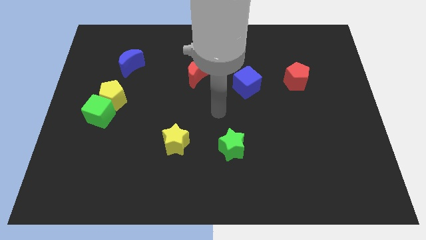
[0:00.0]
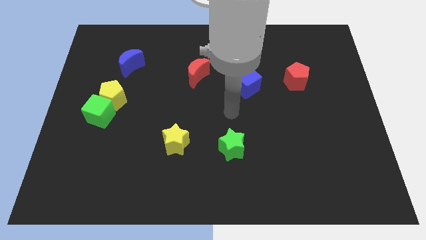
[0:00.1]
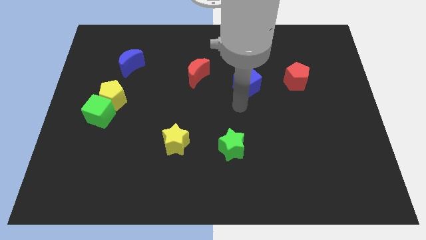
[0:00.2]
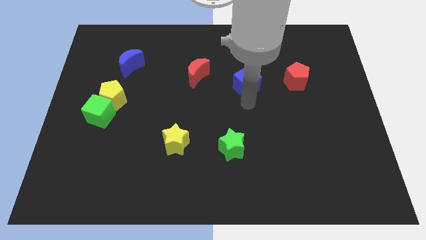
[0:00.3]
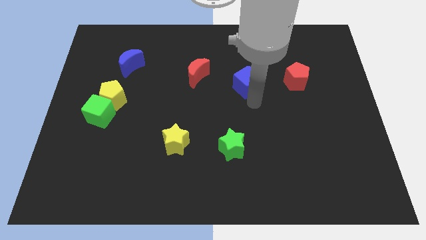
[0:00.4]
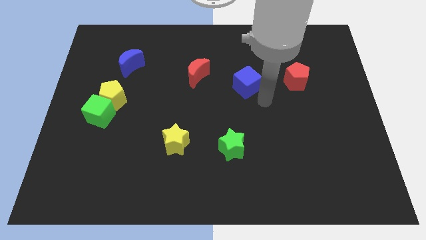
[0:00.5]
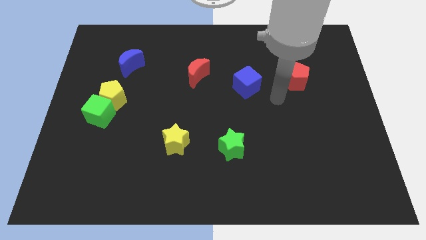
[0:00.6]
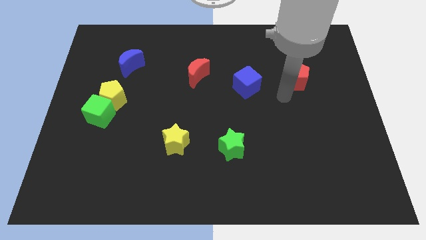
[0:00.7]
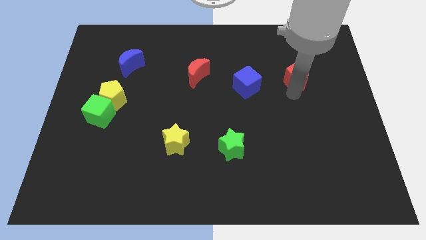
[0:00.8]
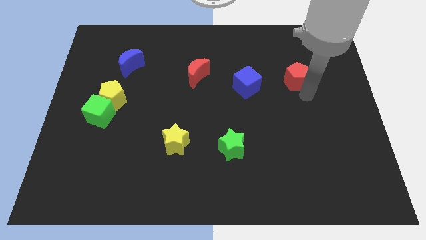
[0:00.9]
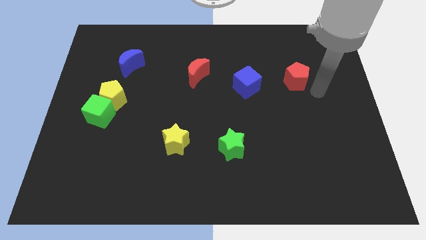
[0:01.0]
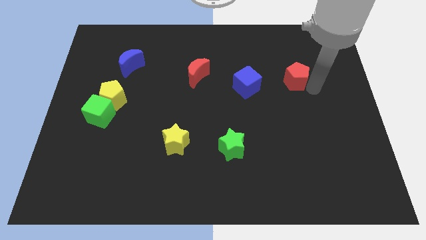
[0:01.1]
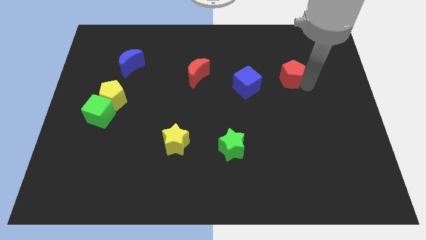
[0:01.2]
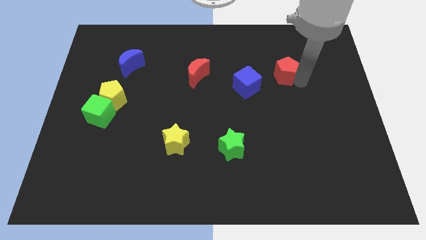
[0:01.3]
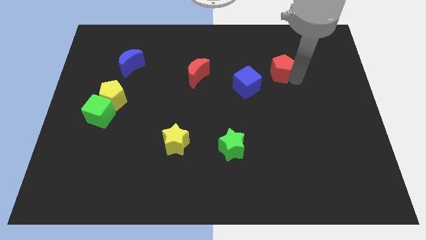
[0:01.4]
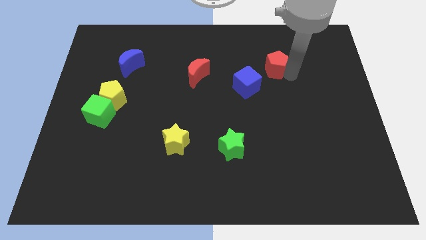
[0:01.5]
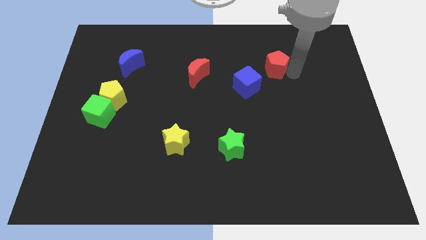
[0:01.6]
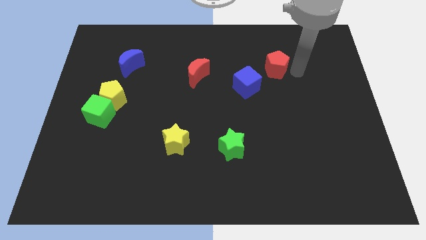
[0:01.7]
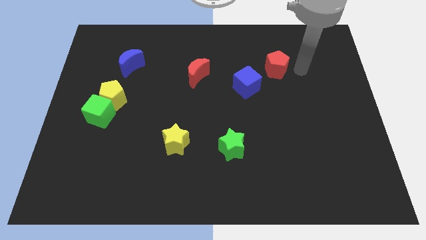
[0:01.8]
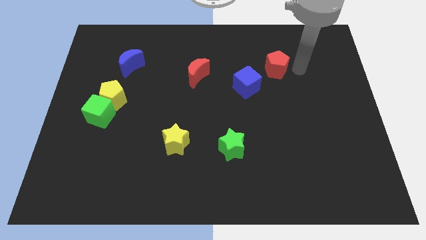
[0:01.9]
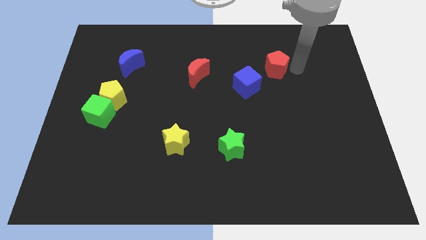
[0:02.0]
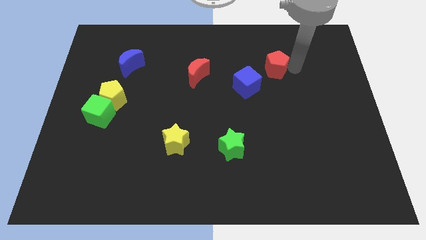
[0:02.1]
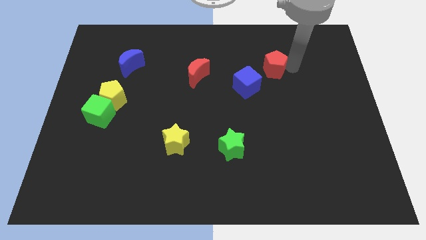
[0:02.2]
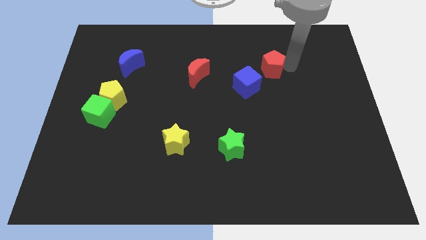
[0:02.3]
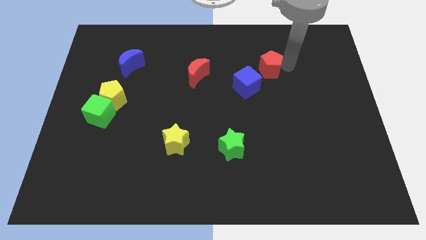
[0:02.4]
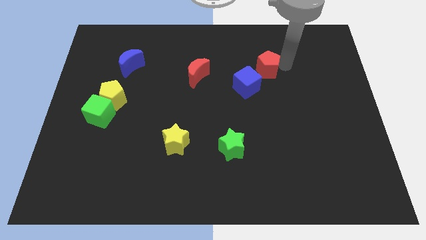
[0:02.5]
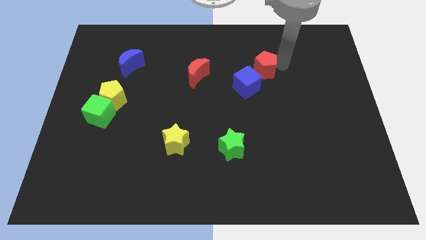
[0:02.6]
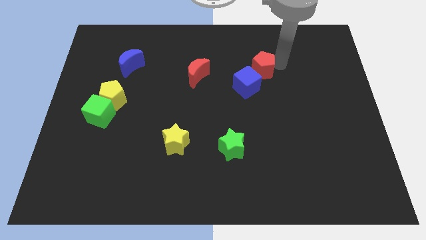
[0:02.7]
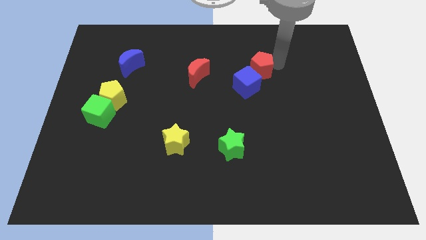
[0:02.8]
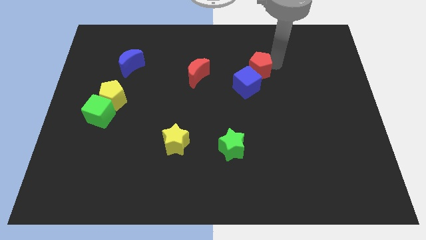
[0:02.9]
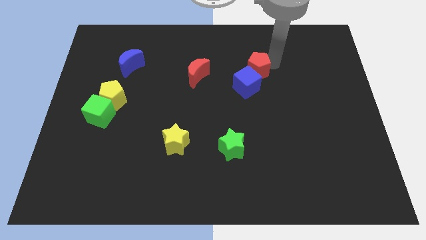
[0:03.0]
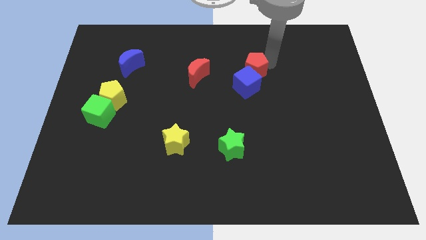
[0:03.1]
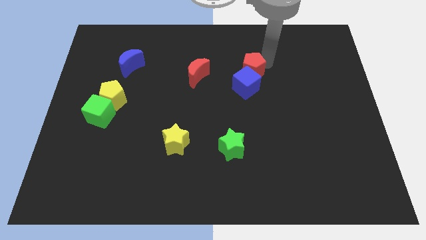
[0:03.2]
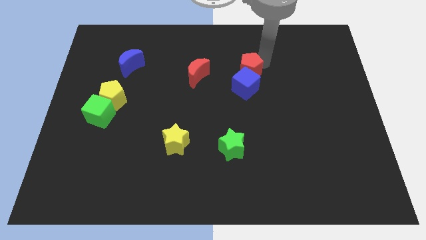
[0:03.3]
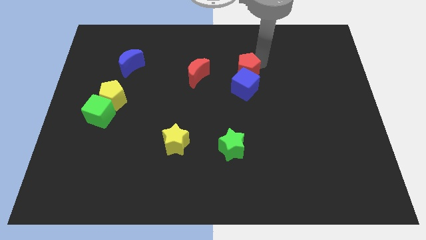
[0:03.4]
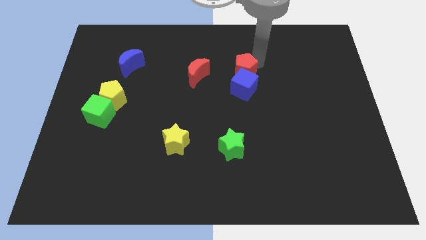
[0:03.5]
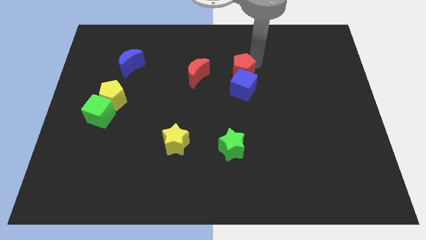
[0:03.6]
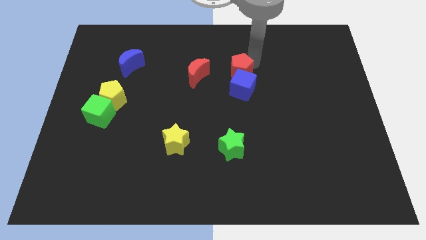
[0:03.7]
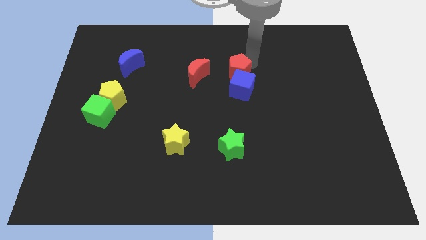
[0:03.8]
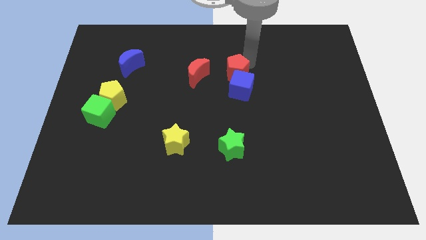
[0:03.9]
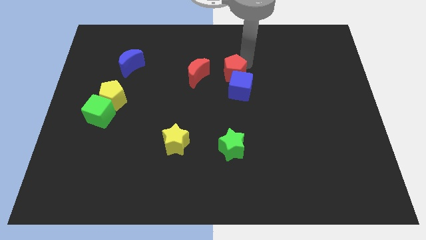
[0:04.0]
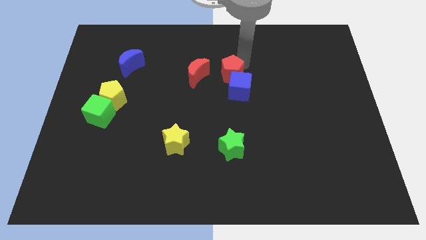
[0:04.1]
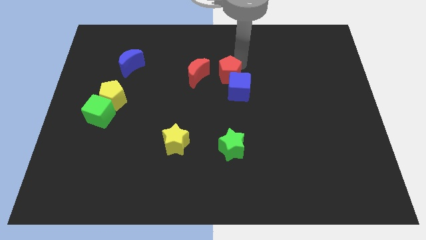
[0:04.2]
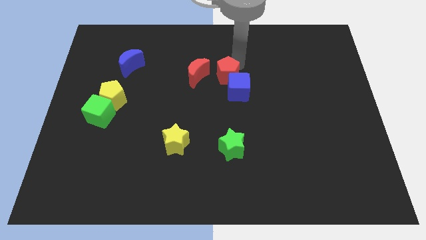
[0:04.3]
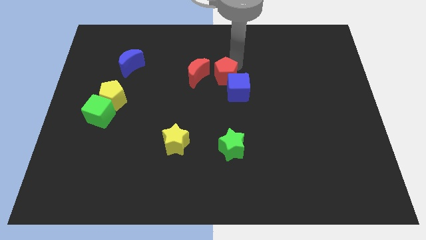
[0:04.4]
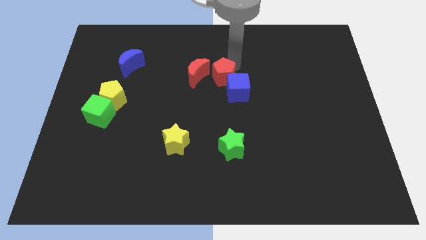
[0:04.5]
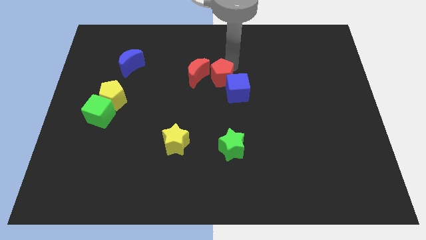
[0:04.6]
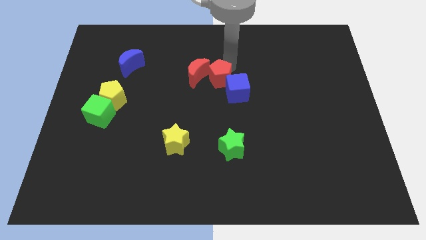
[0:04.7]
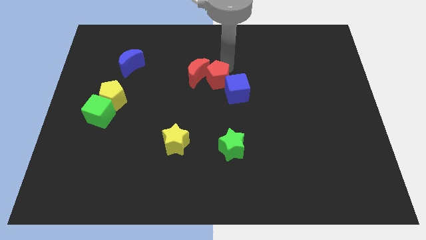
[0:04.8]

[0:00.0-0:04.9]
slide the red pentagon left

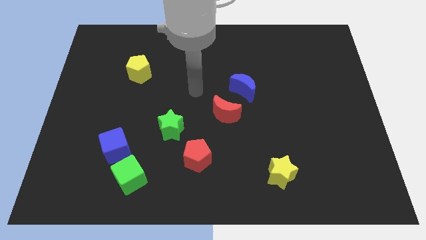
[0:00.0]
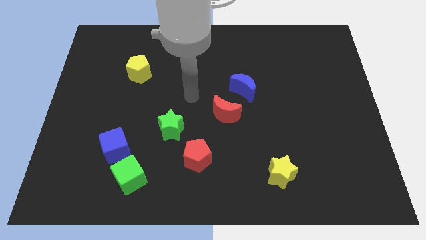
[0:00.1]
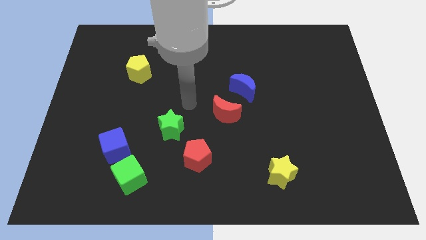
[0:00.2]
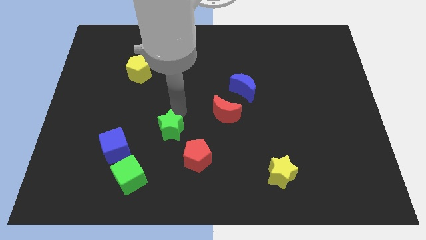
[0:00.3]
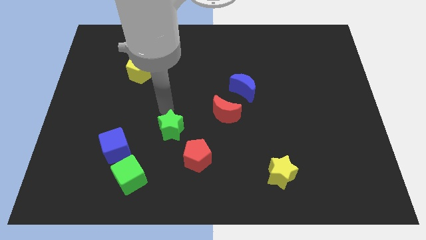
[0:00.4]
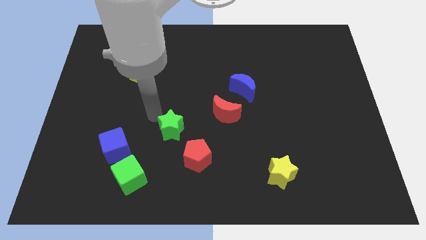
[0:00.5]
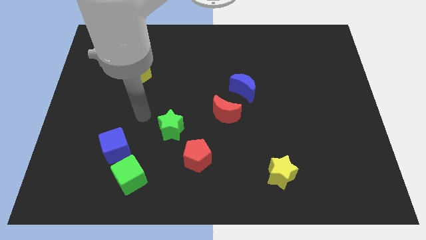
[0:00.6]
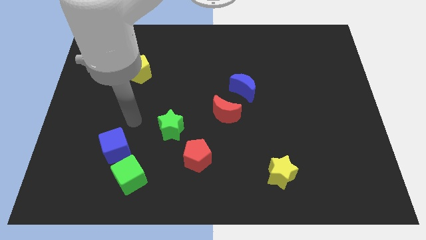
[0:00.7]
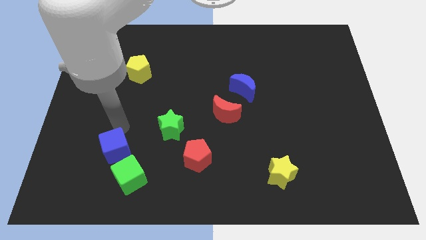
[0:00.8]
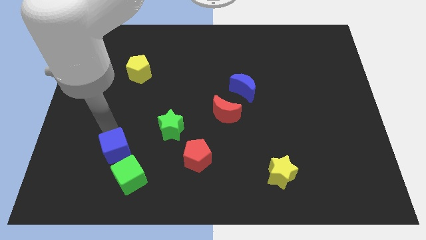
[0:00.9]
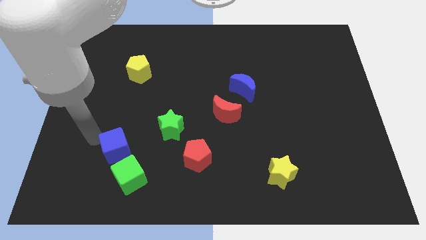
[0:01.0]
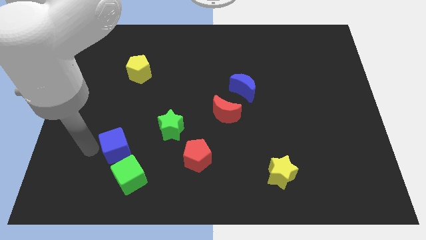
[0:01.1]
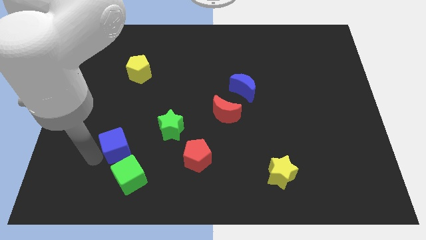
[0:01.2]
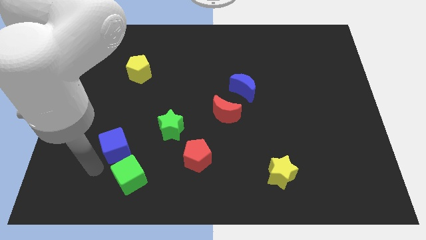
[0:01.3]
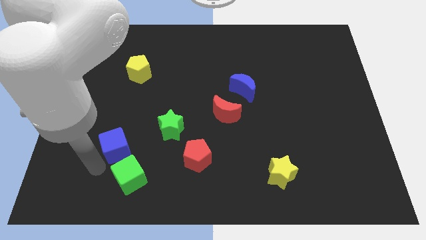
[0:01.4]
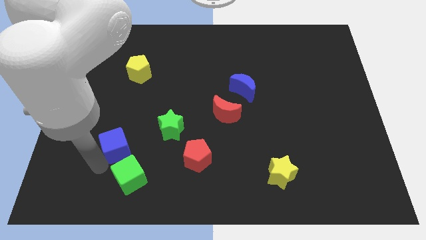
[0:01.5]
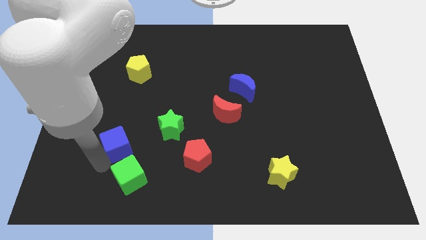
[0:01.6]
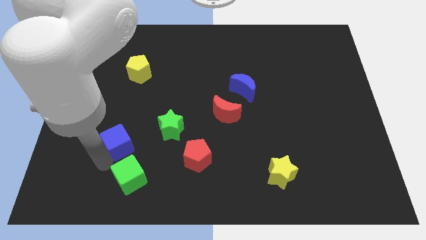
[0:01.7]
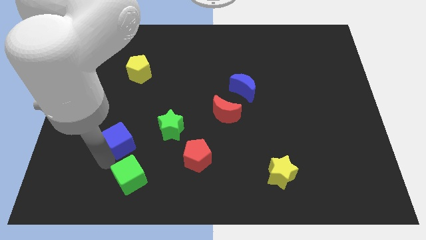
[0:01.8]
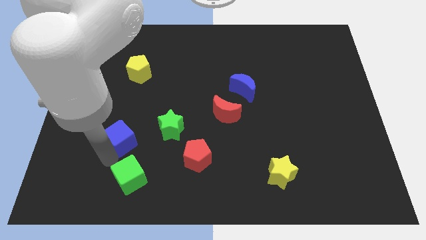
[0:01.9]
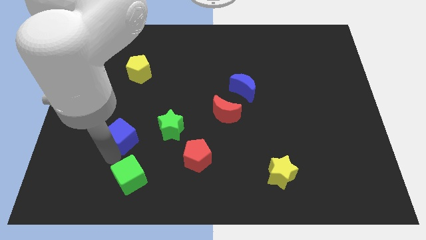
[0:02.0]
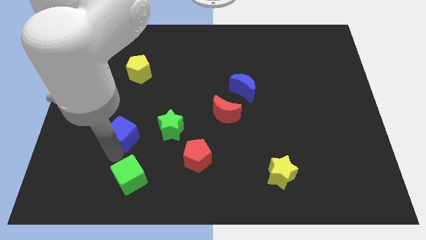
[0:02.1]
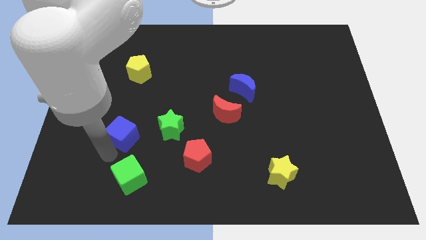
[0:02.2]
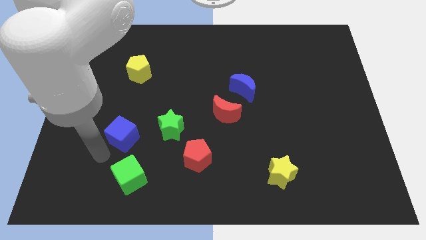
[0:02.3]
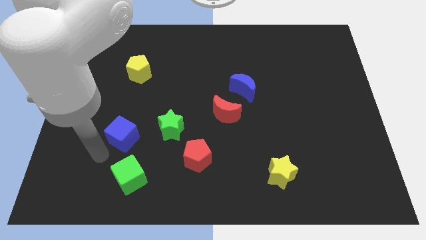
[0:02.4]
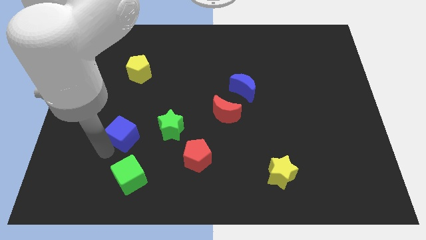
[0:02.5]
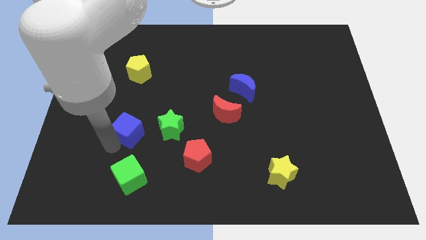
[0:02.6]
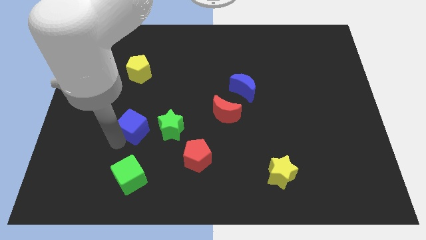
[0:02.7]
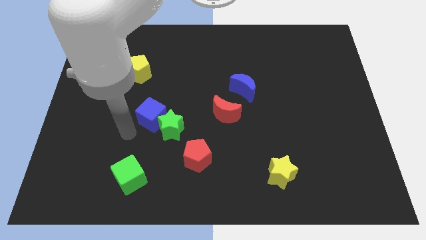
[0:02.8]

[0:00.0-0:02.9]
slightly move the blue cube up and to the right

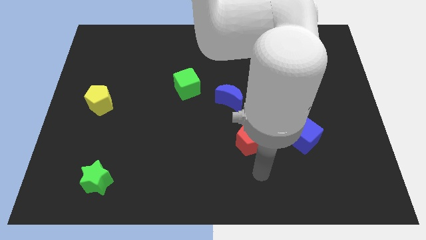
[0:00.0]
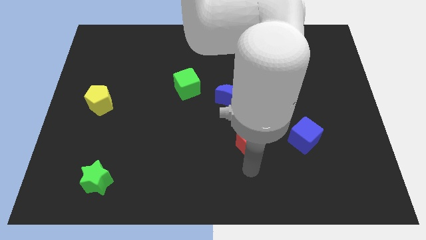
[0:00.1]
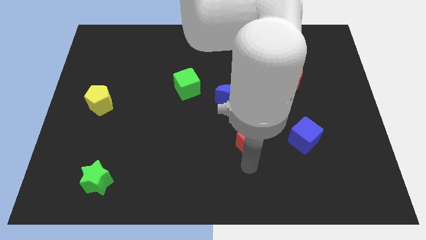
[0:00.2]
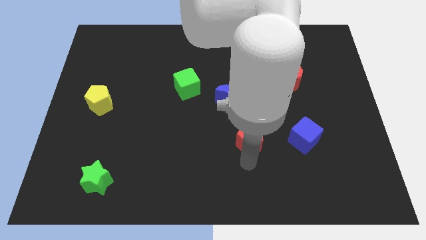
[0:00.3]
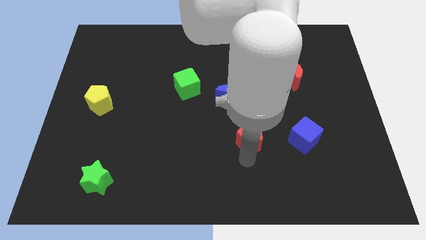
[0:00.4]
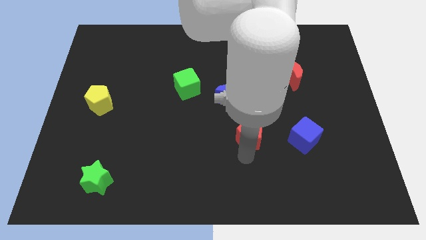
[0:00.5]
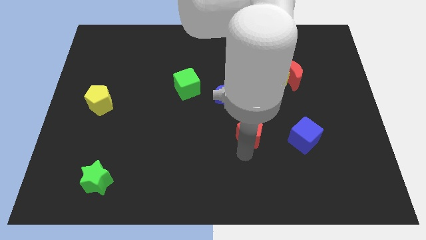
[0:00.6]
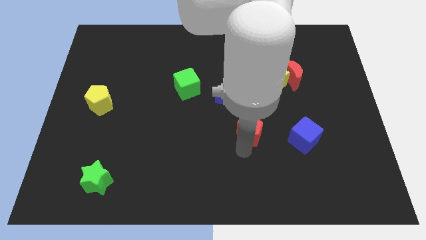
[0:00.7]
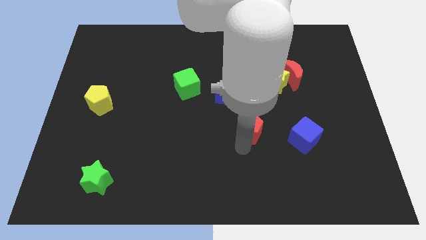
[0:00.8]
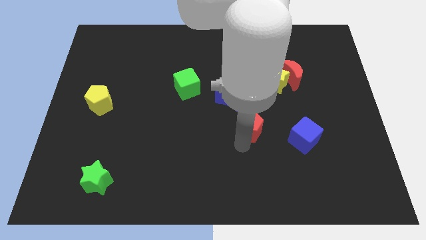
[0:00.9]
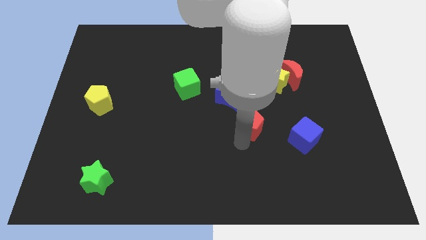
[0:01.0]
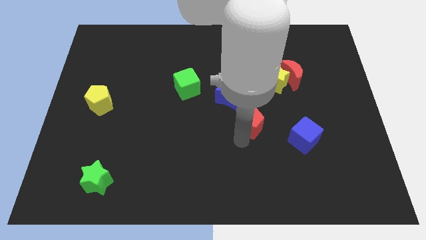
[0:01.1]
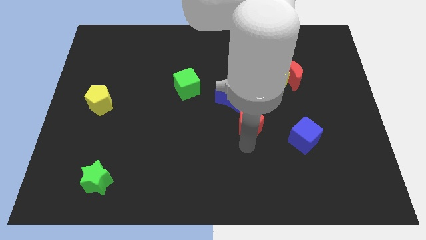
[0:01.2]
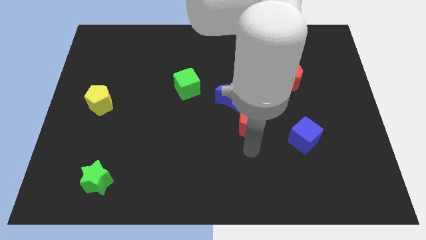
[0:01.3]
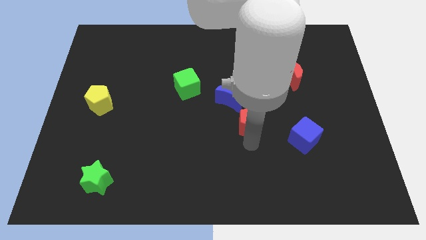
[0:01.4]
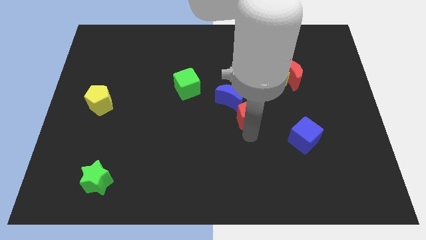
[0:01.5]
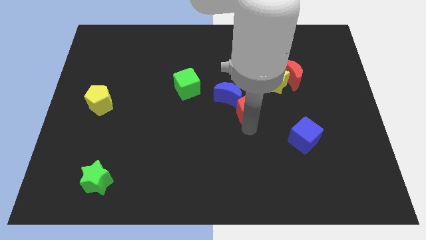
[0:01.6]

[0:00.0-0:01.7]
push the red pentagon a little up
